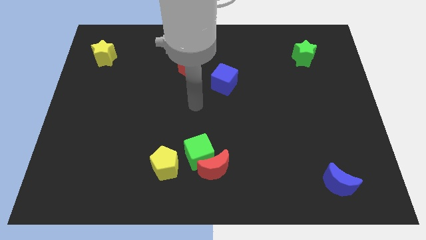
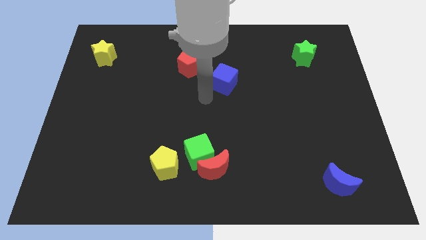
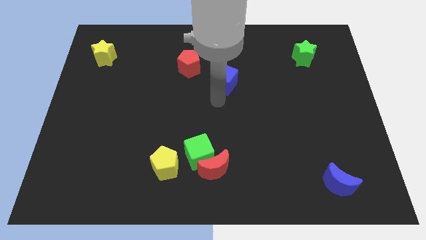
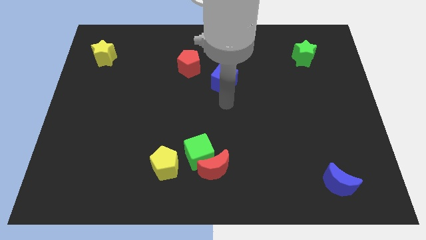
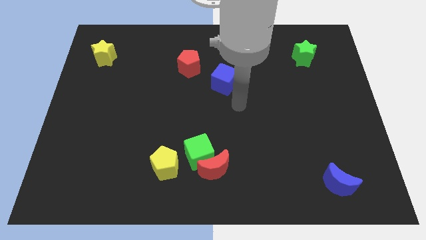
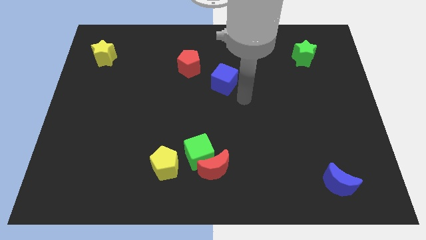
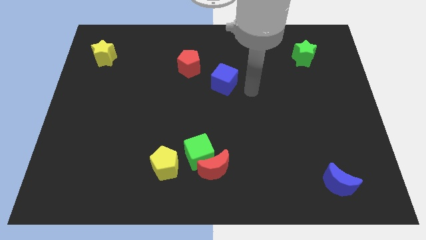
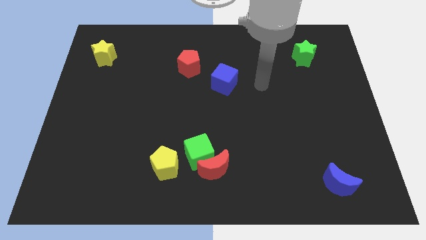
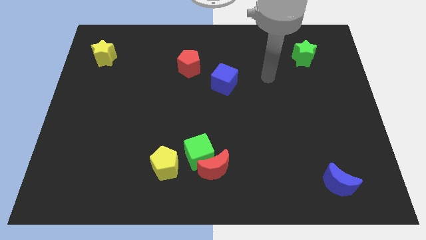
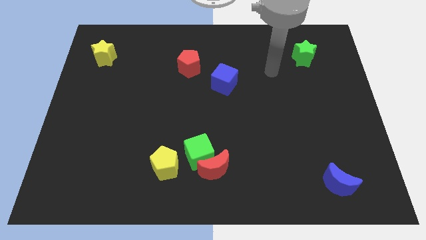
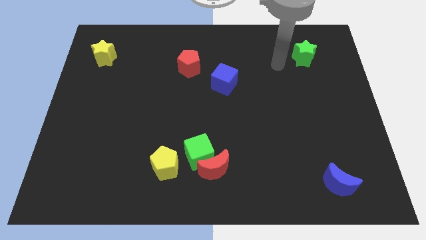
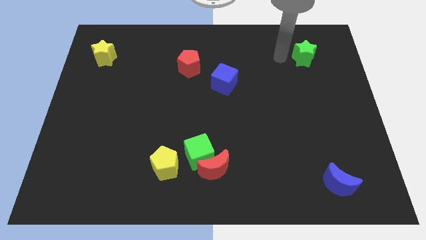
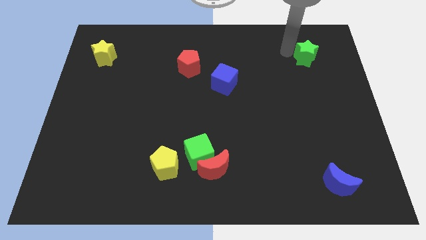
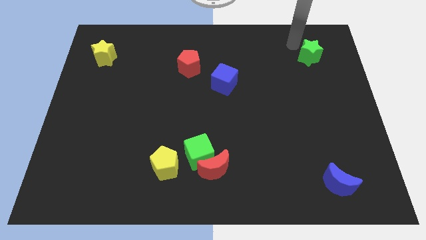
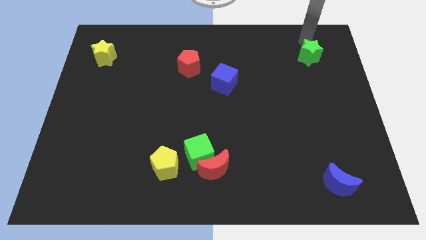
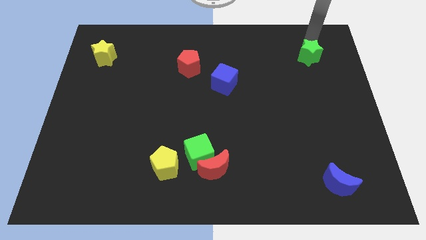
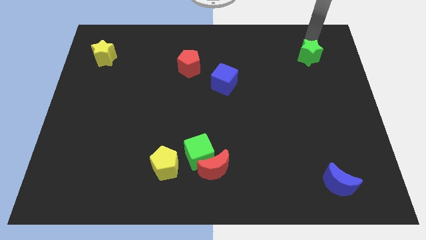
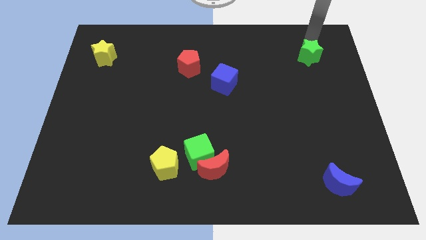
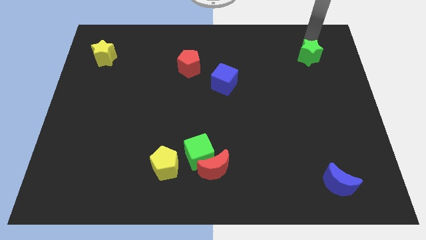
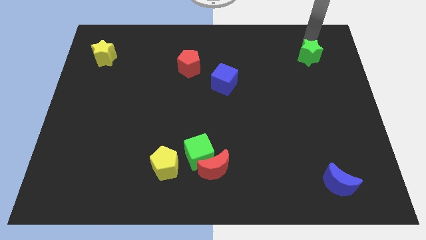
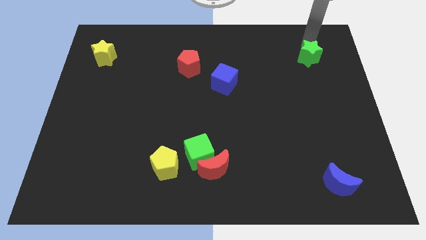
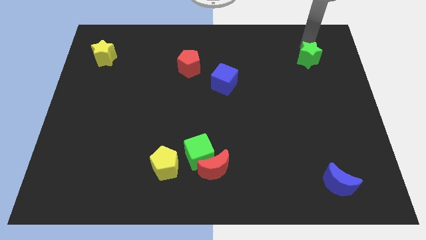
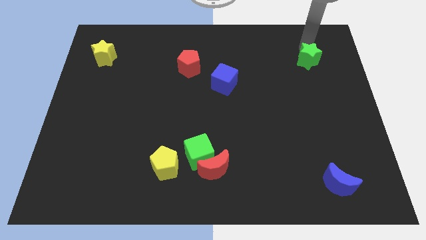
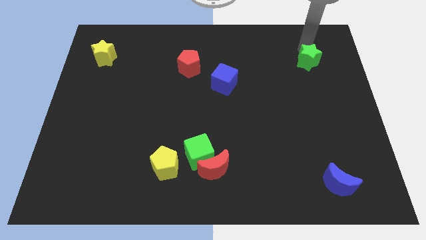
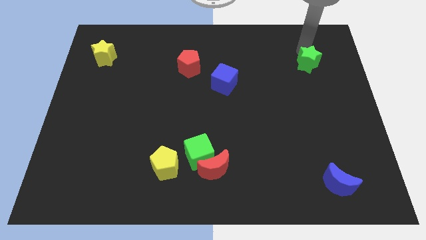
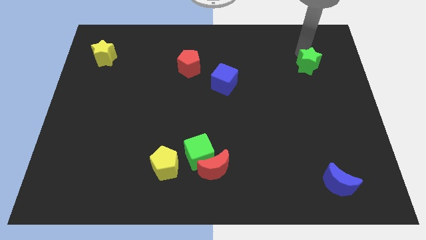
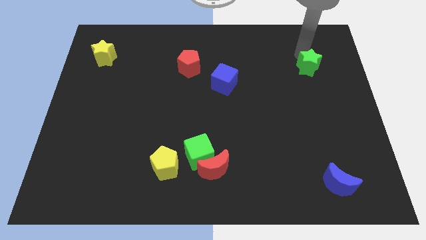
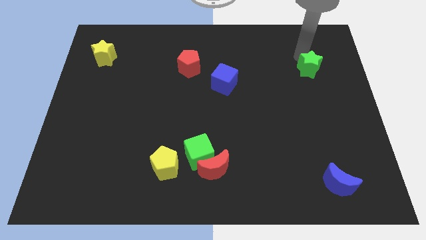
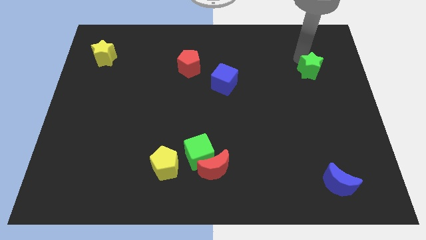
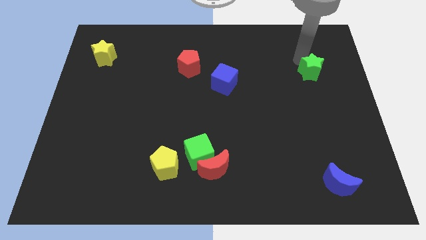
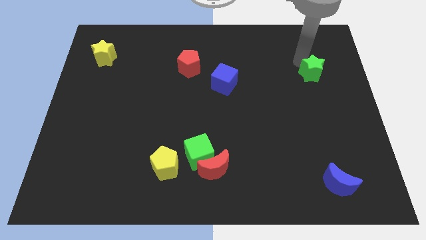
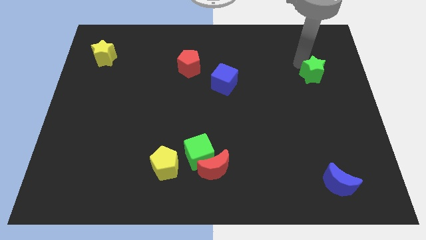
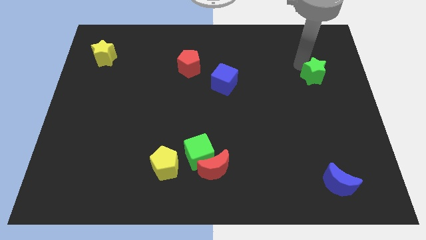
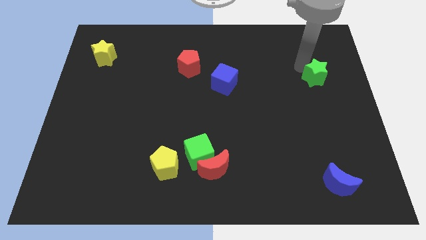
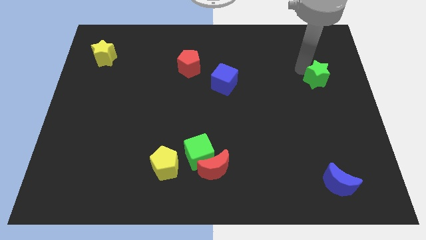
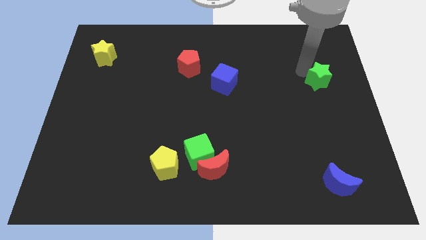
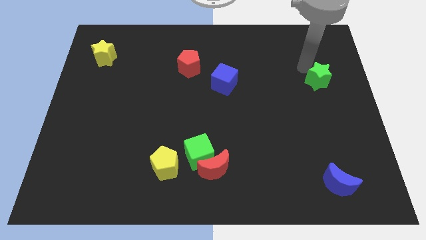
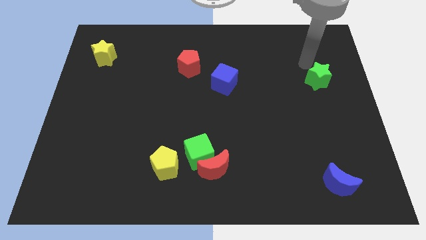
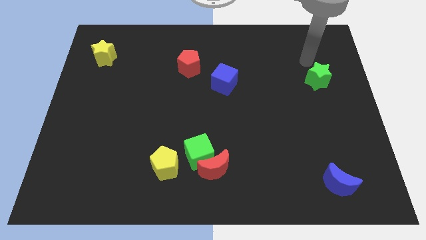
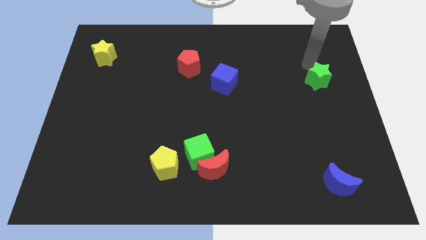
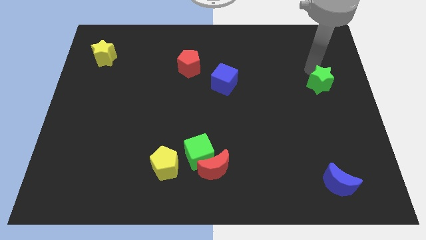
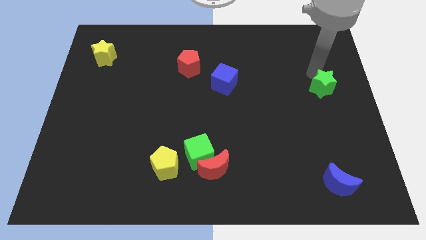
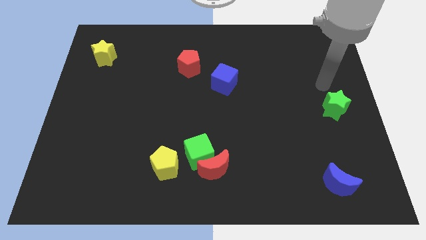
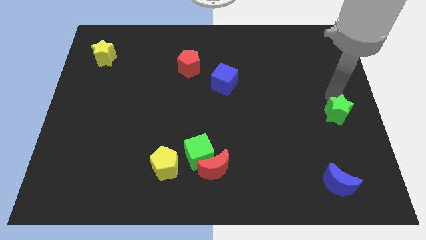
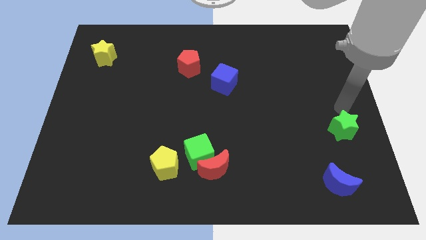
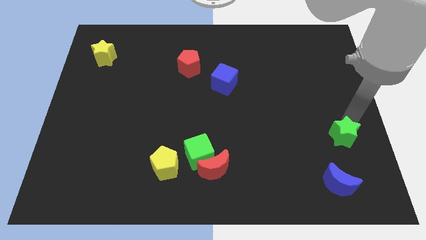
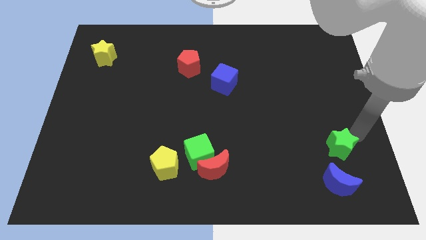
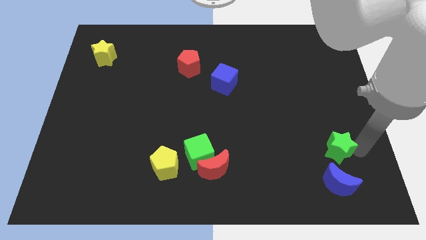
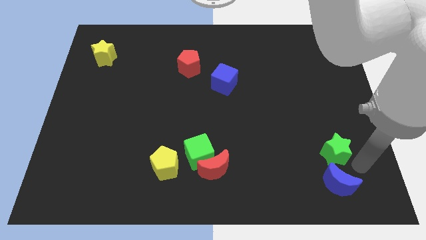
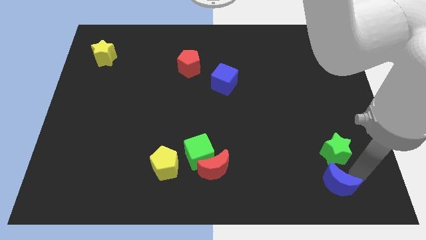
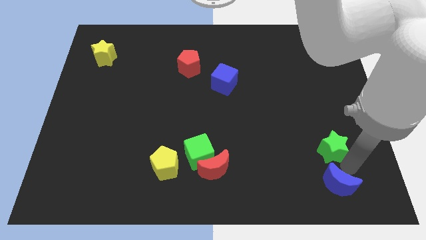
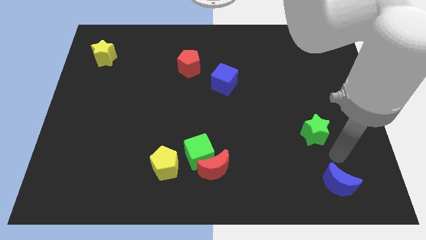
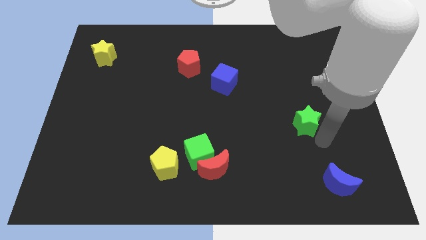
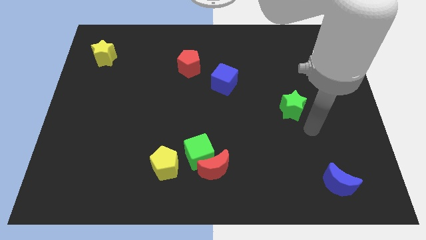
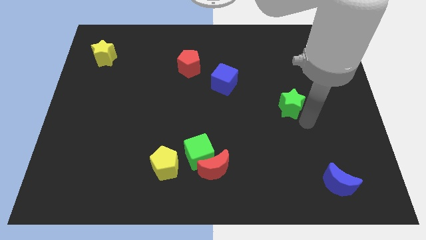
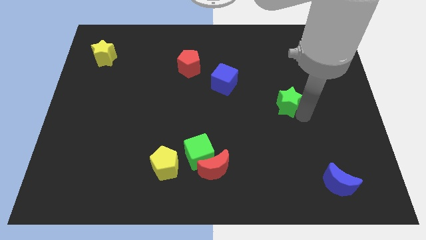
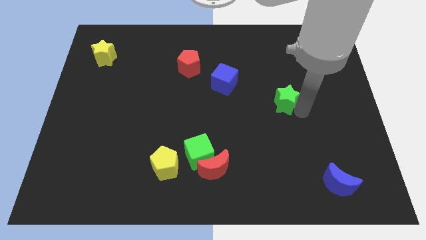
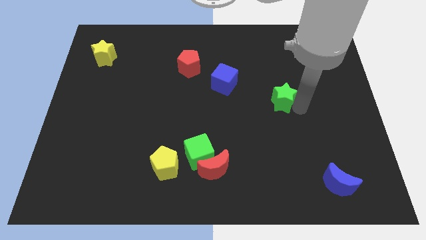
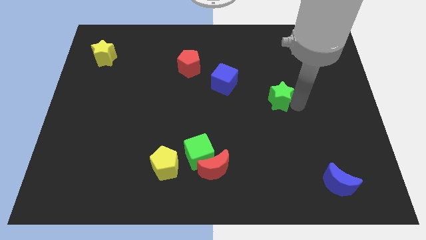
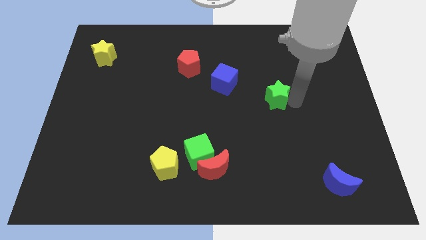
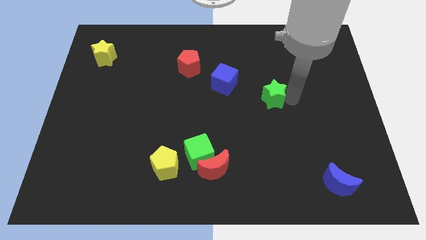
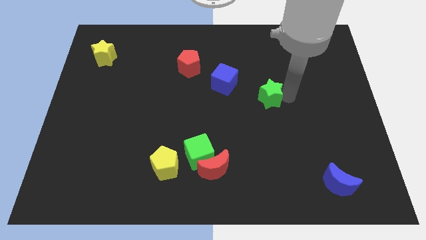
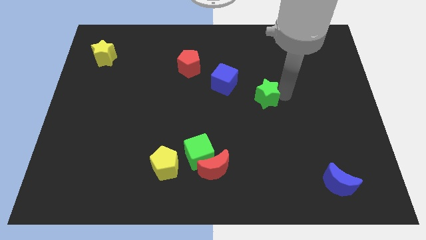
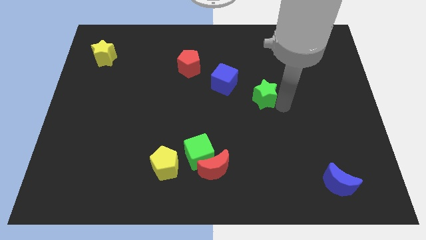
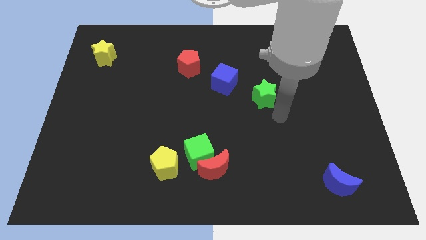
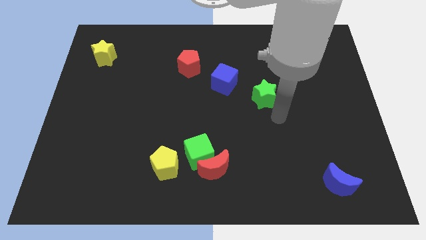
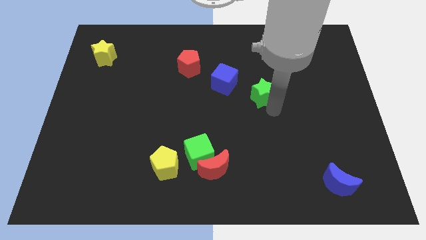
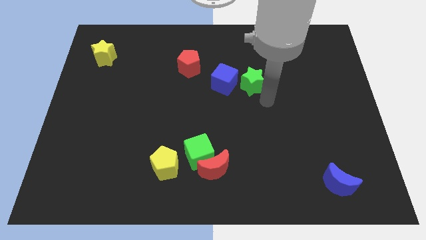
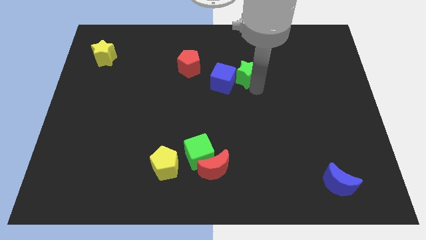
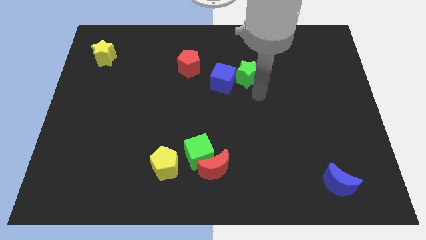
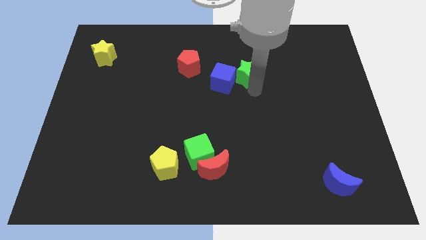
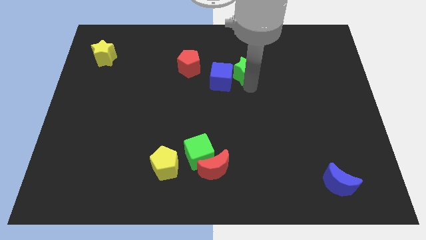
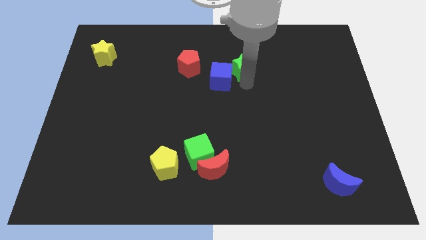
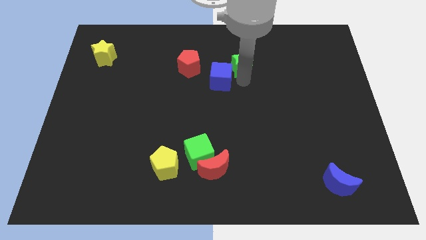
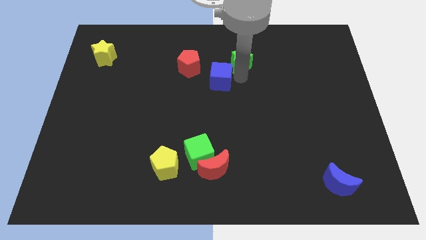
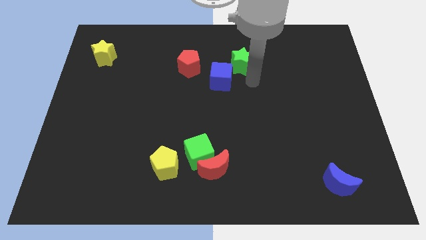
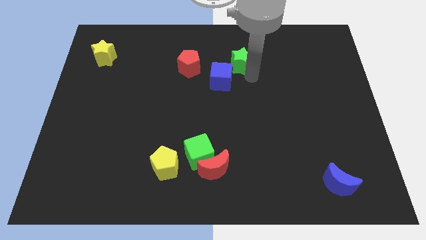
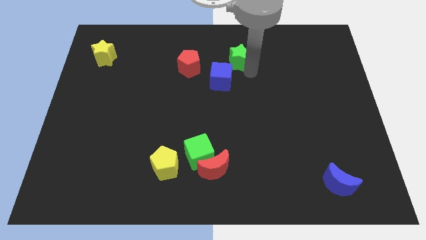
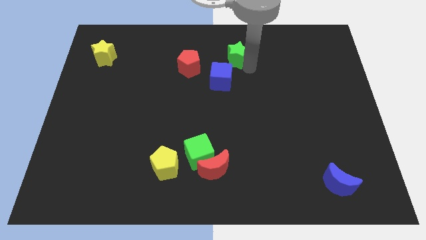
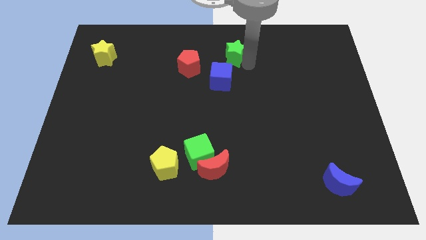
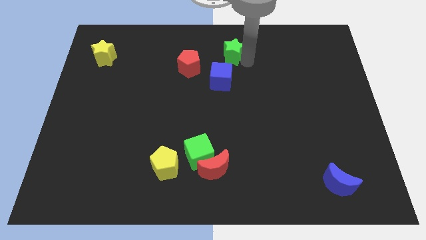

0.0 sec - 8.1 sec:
move the green star to the top side
